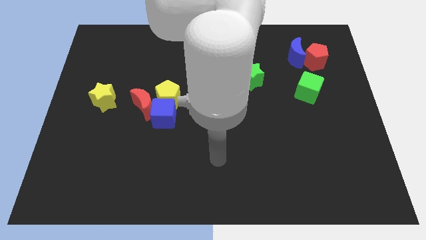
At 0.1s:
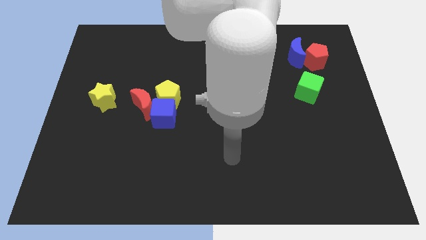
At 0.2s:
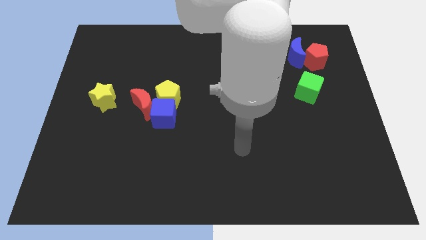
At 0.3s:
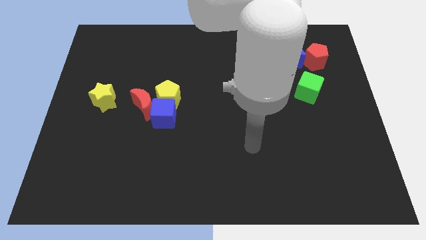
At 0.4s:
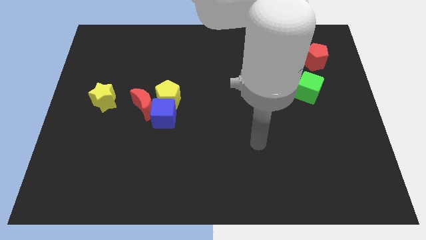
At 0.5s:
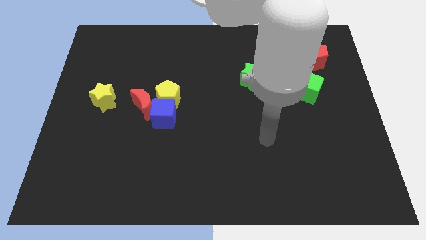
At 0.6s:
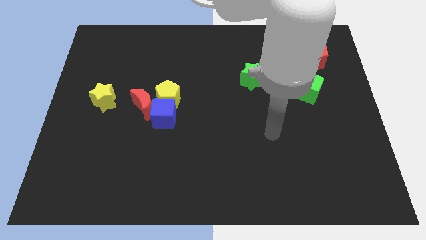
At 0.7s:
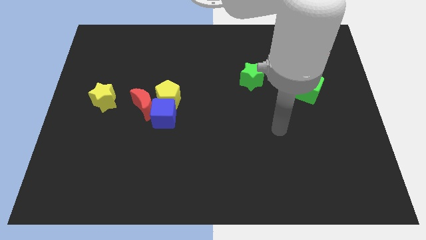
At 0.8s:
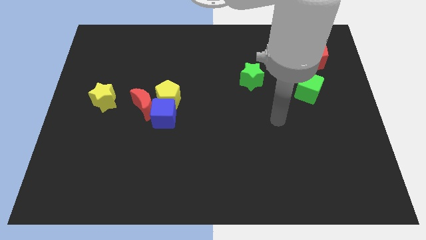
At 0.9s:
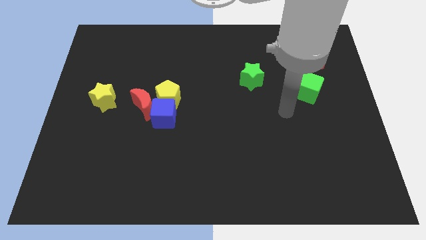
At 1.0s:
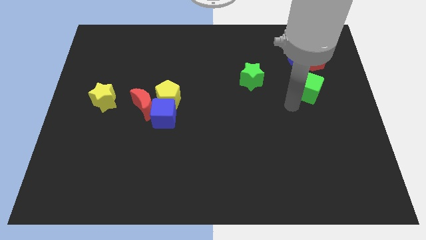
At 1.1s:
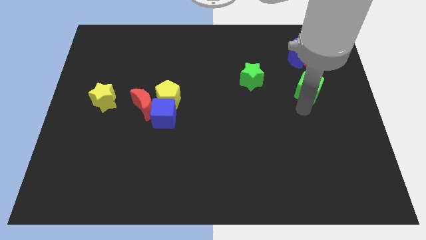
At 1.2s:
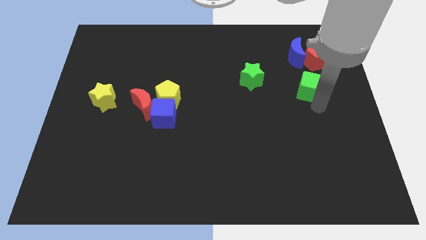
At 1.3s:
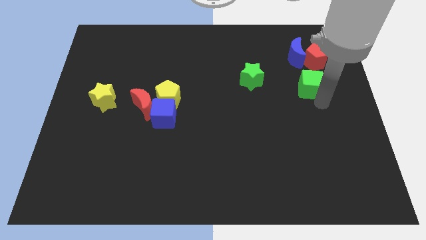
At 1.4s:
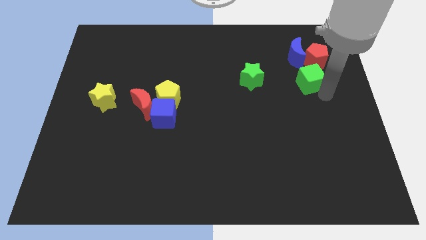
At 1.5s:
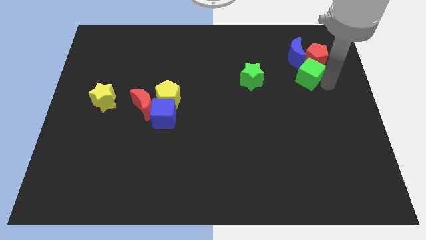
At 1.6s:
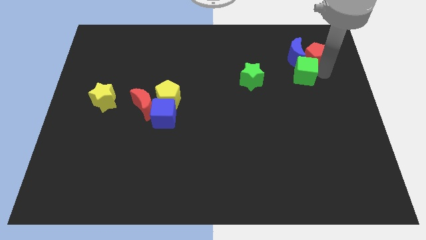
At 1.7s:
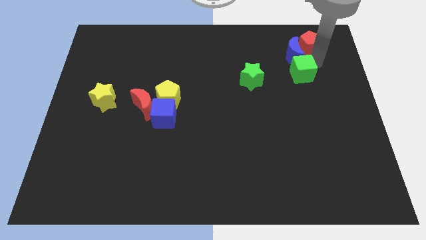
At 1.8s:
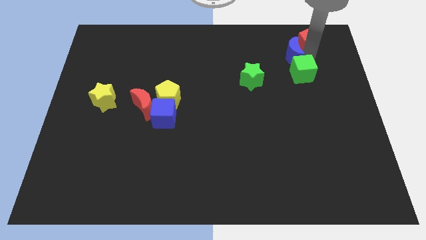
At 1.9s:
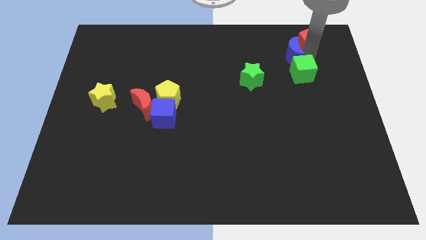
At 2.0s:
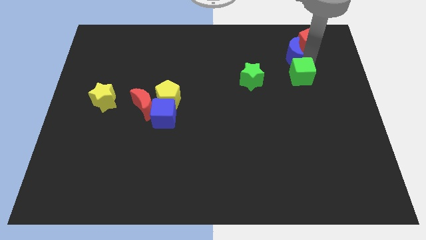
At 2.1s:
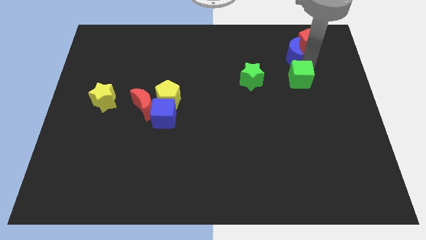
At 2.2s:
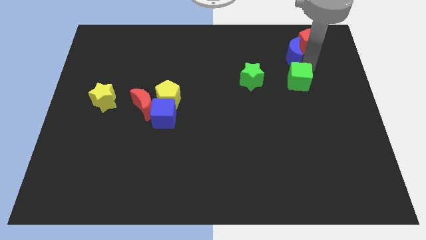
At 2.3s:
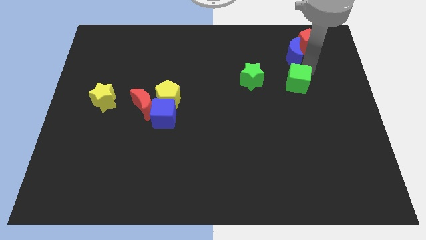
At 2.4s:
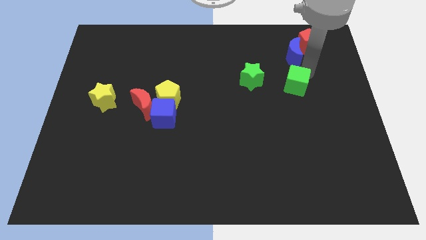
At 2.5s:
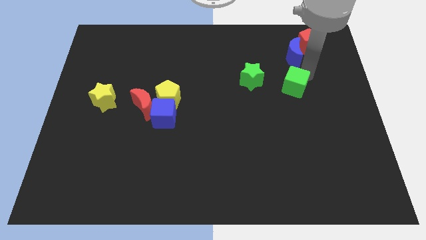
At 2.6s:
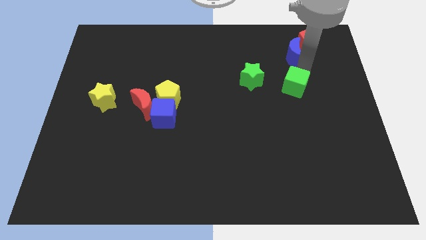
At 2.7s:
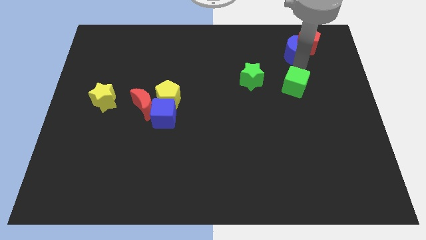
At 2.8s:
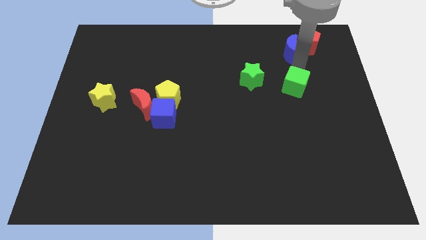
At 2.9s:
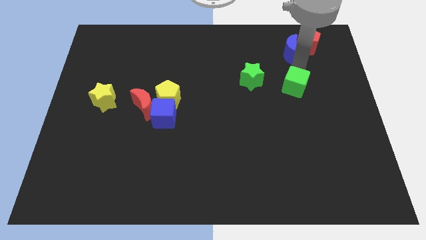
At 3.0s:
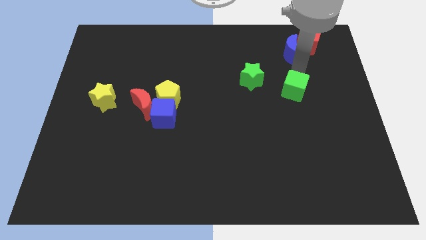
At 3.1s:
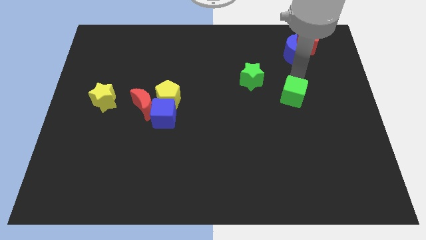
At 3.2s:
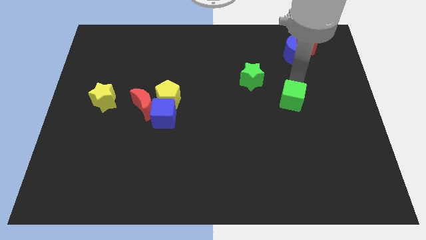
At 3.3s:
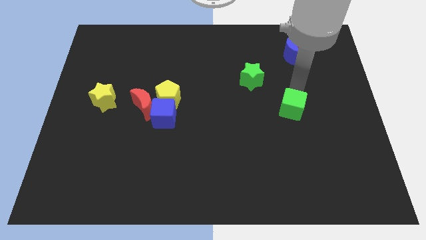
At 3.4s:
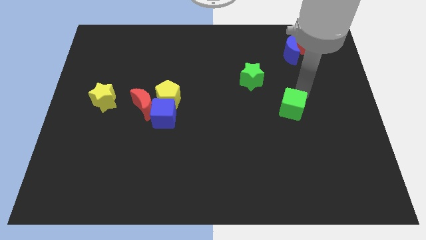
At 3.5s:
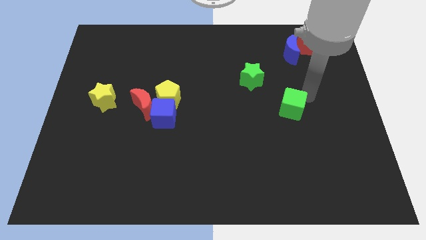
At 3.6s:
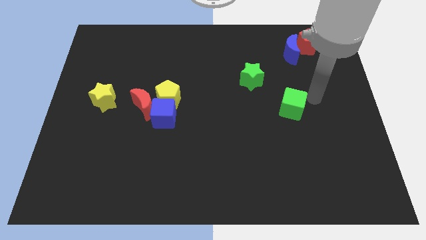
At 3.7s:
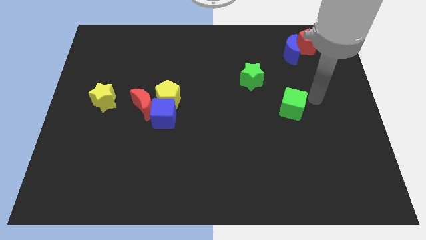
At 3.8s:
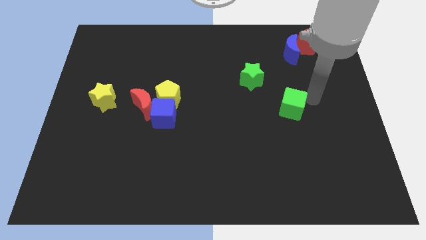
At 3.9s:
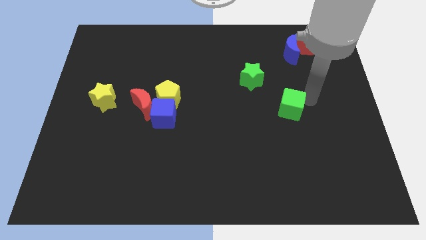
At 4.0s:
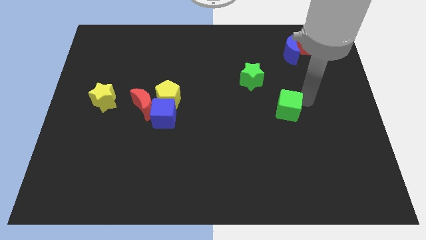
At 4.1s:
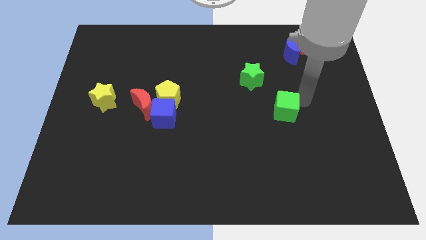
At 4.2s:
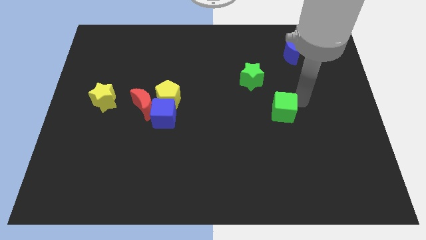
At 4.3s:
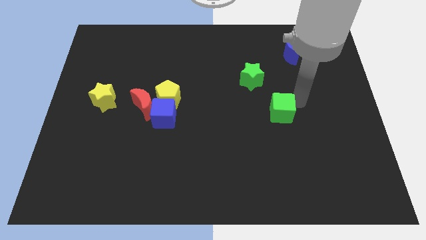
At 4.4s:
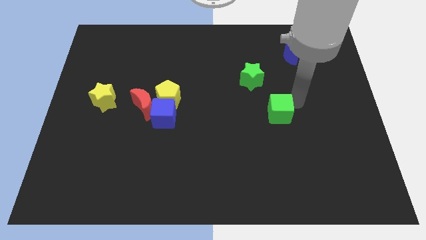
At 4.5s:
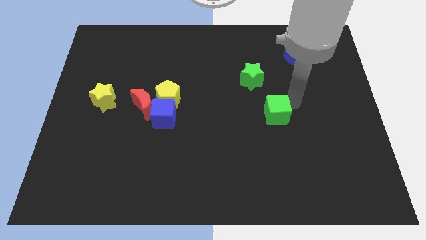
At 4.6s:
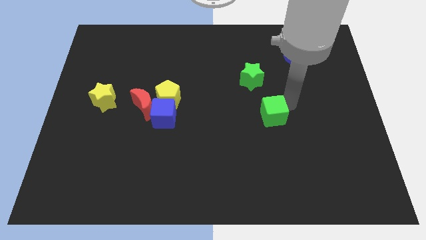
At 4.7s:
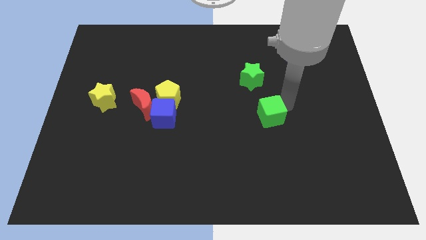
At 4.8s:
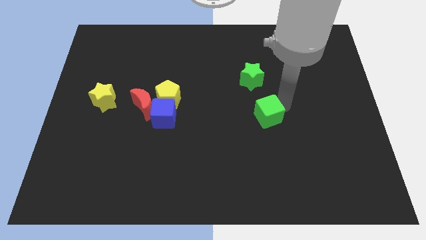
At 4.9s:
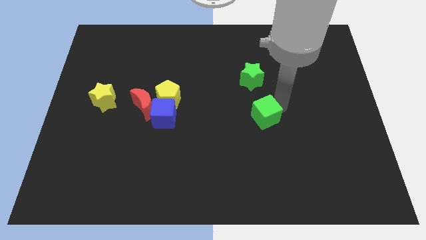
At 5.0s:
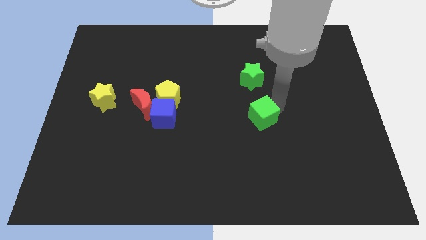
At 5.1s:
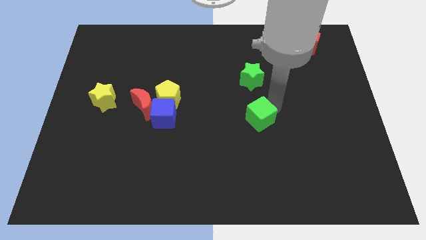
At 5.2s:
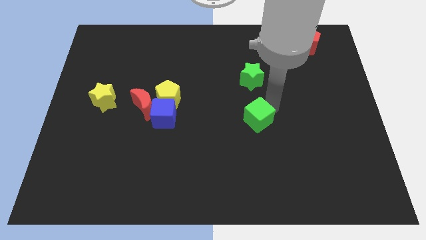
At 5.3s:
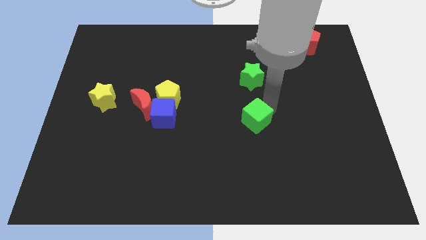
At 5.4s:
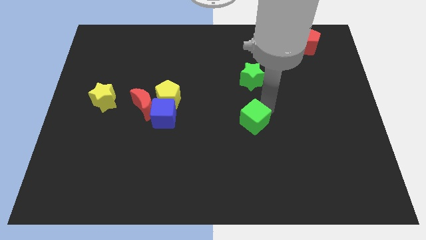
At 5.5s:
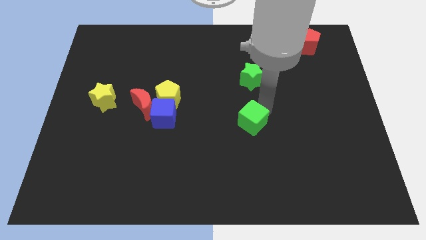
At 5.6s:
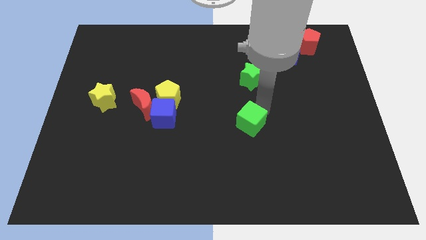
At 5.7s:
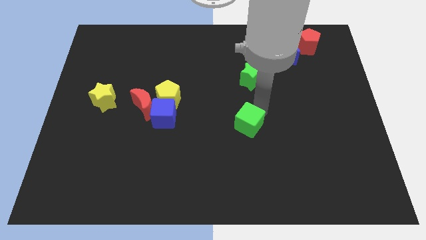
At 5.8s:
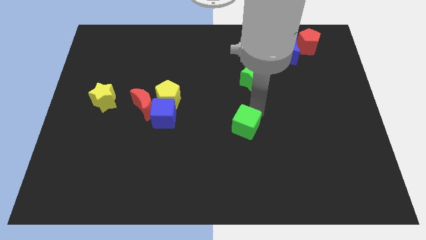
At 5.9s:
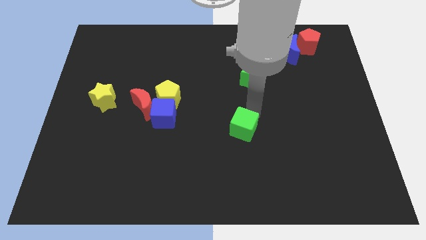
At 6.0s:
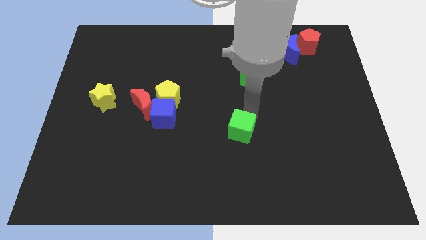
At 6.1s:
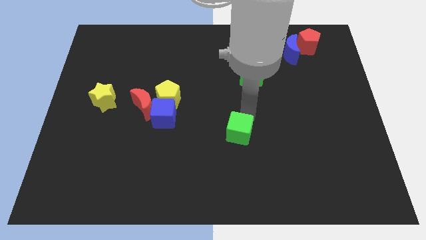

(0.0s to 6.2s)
move the green cube down and left diagonally

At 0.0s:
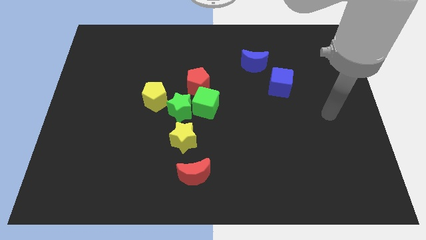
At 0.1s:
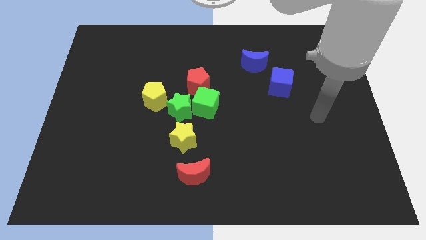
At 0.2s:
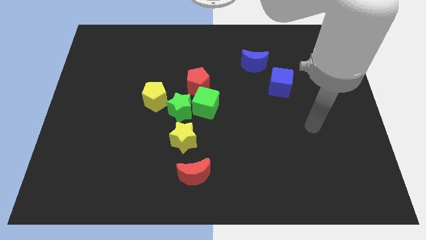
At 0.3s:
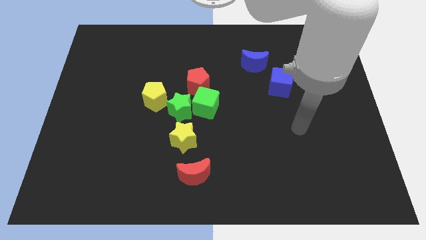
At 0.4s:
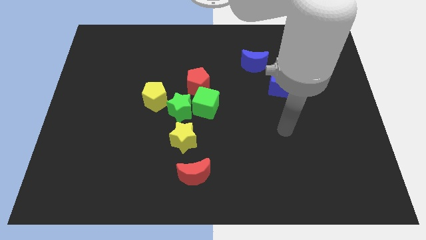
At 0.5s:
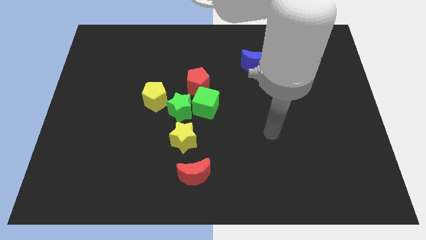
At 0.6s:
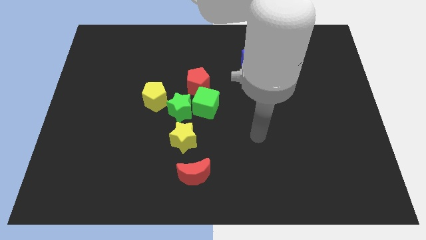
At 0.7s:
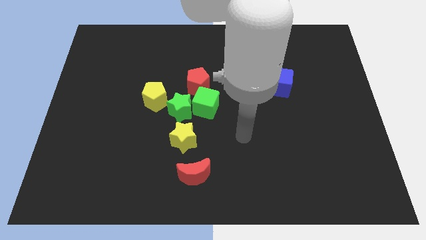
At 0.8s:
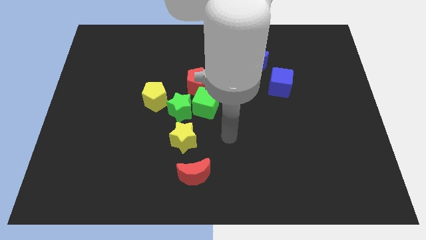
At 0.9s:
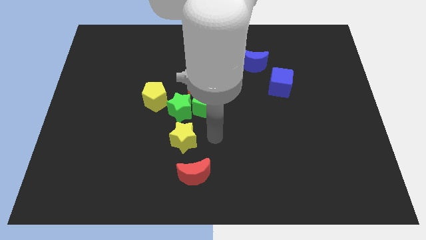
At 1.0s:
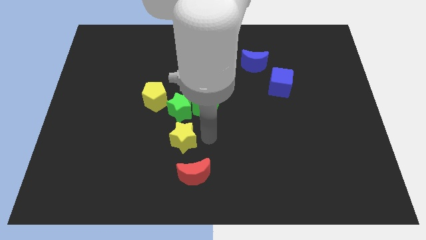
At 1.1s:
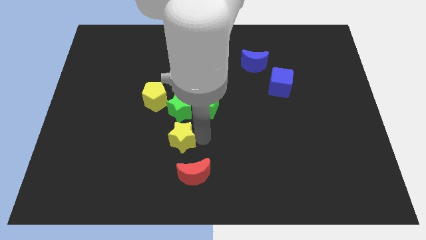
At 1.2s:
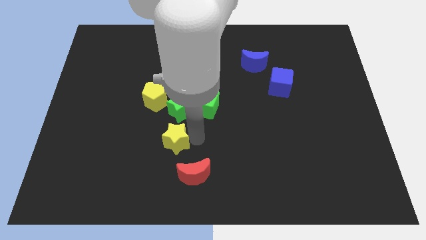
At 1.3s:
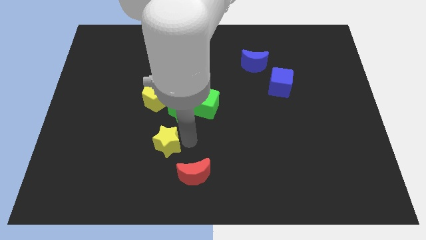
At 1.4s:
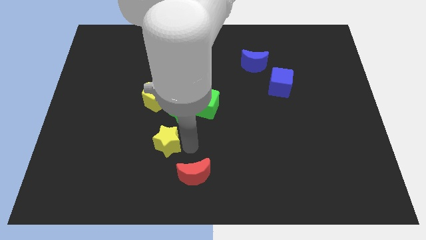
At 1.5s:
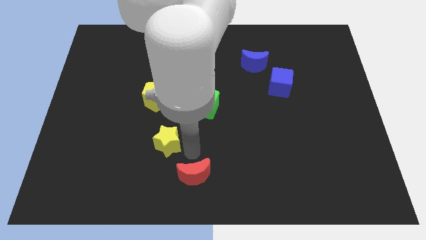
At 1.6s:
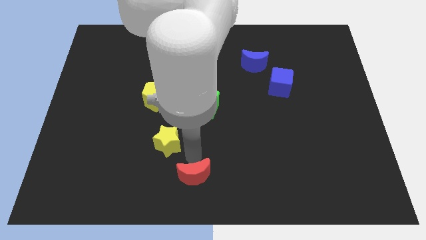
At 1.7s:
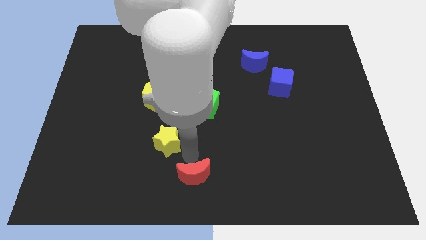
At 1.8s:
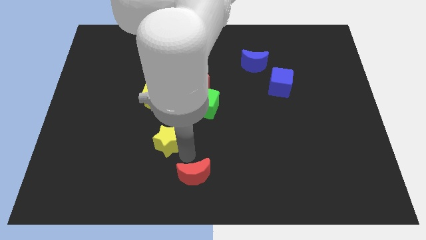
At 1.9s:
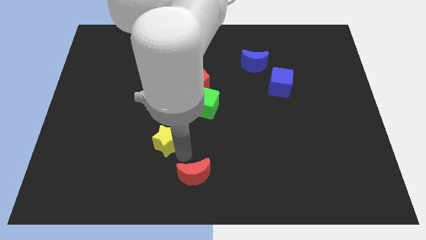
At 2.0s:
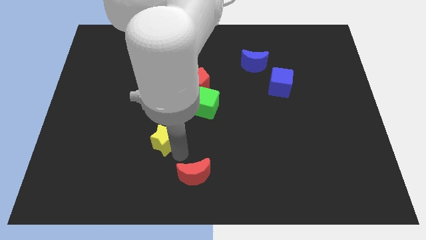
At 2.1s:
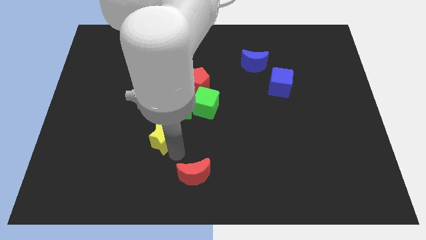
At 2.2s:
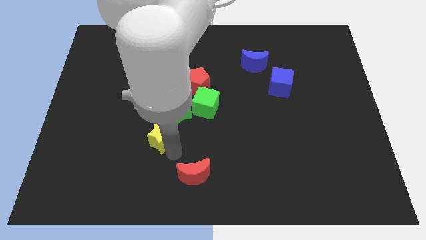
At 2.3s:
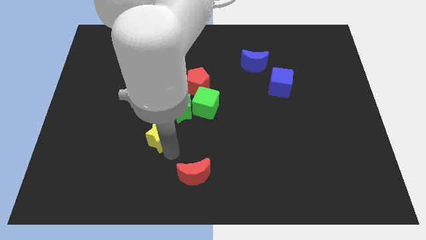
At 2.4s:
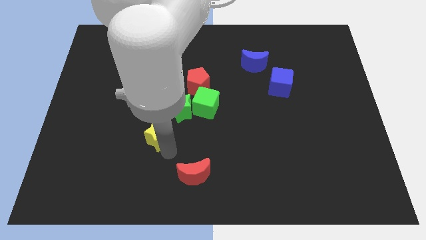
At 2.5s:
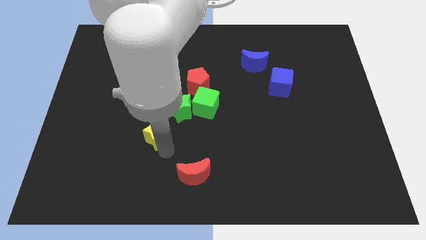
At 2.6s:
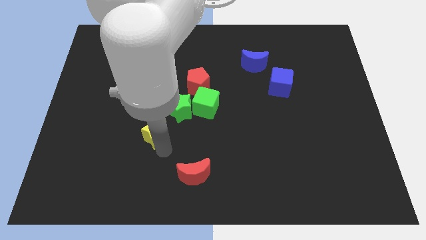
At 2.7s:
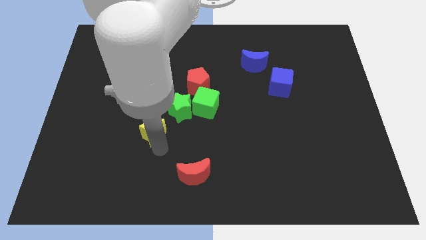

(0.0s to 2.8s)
slide the yellow star somewhat left
